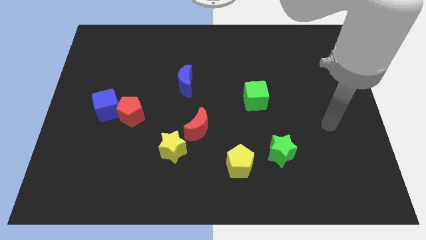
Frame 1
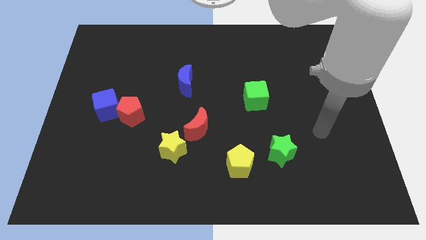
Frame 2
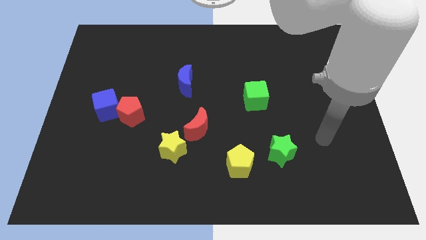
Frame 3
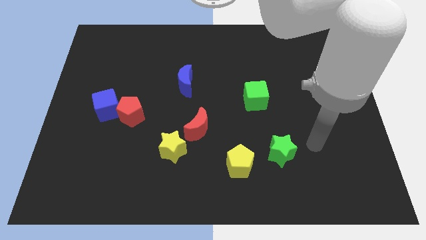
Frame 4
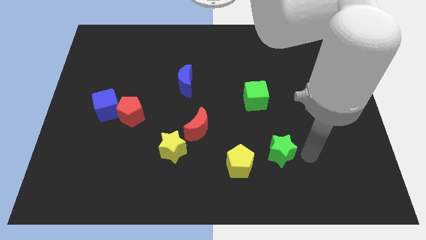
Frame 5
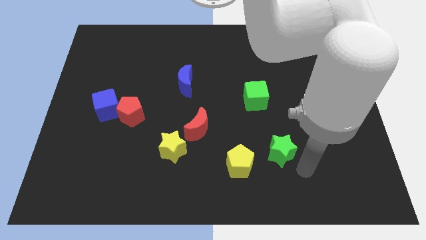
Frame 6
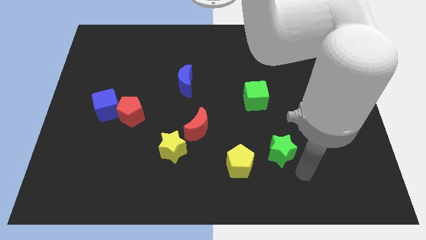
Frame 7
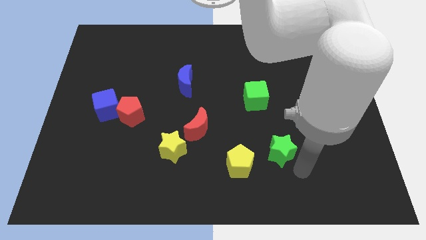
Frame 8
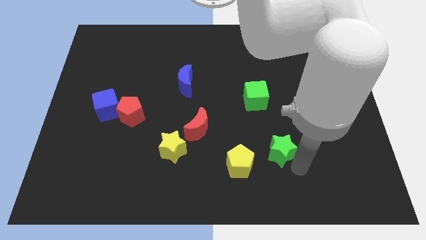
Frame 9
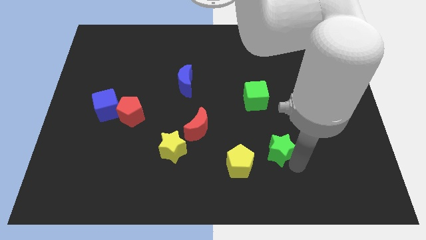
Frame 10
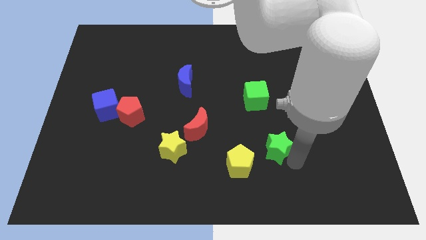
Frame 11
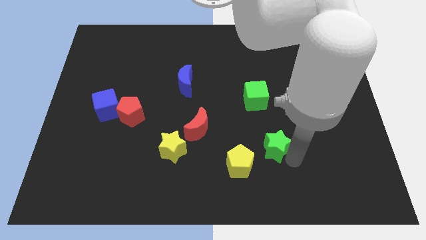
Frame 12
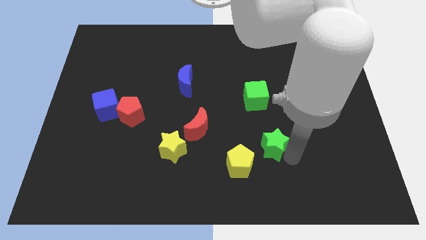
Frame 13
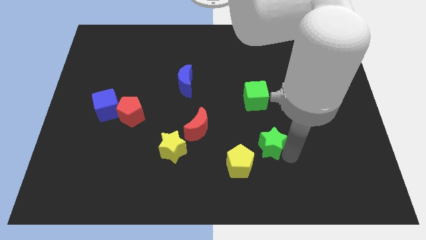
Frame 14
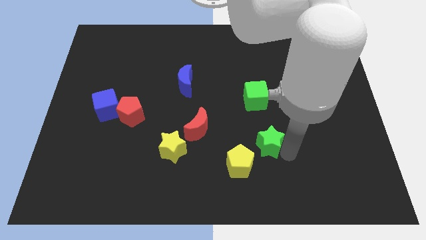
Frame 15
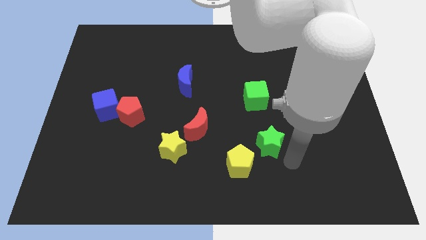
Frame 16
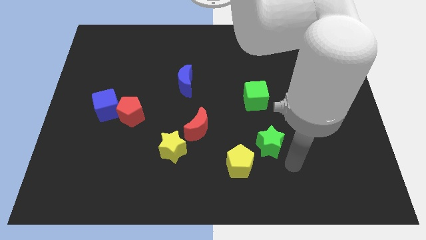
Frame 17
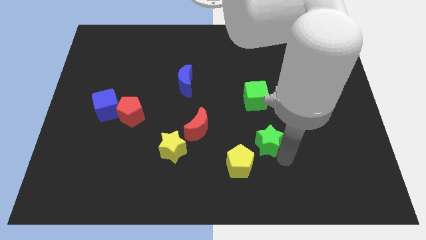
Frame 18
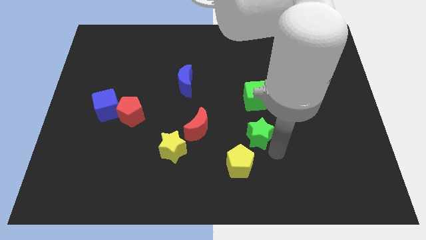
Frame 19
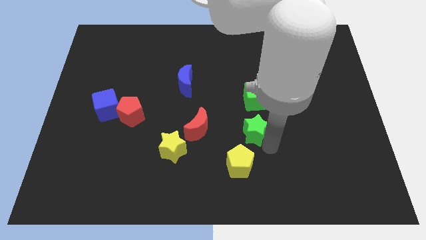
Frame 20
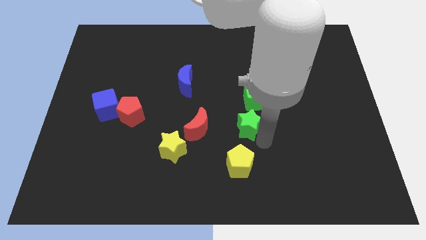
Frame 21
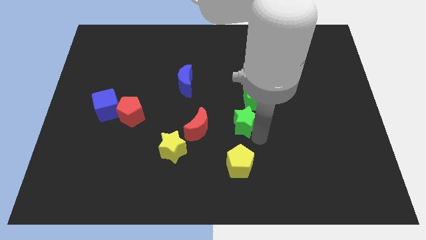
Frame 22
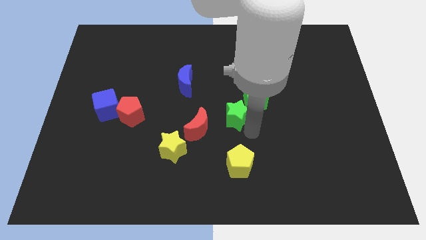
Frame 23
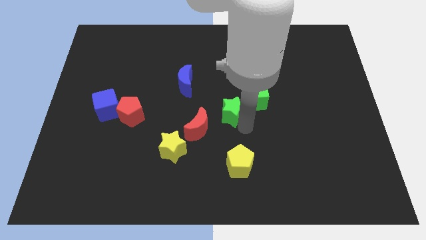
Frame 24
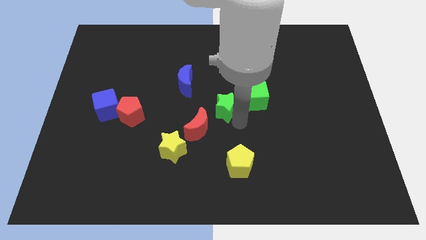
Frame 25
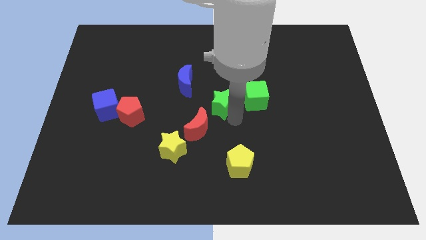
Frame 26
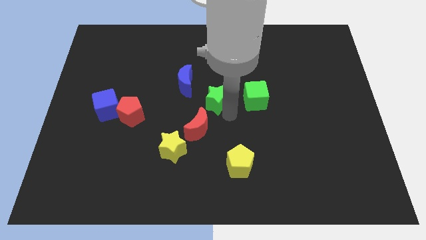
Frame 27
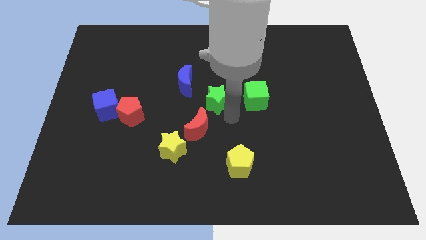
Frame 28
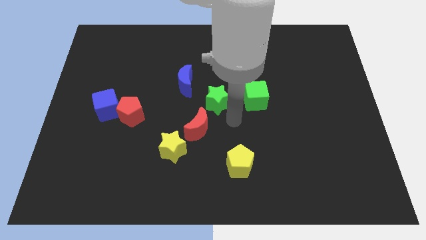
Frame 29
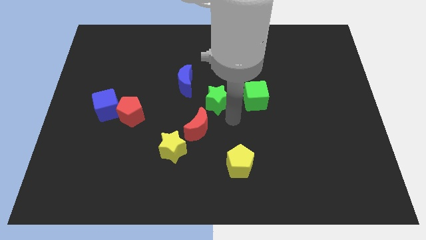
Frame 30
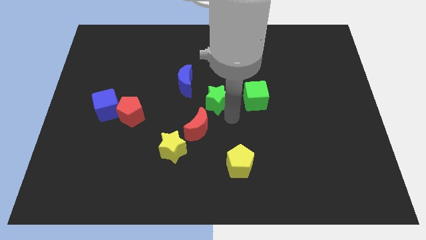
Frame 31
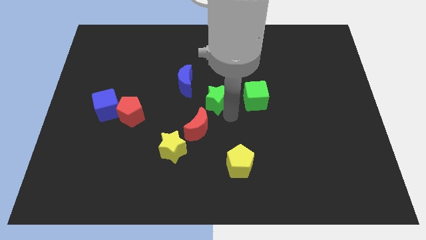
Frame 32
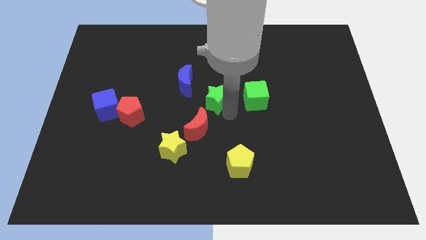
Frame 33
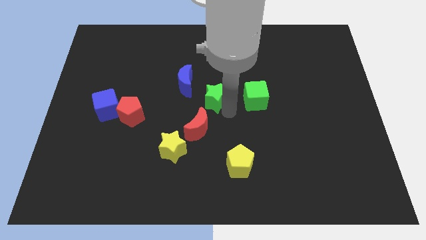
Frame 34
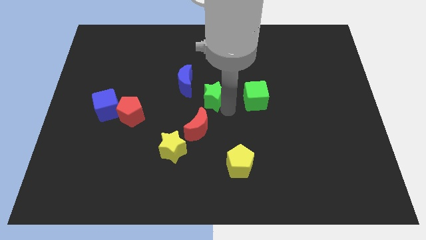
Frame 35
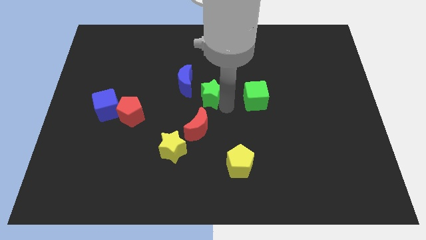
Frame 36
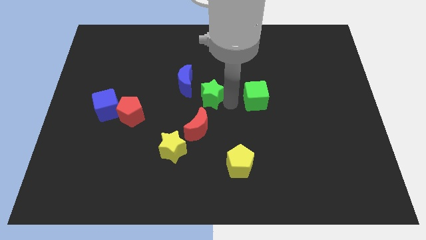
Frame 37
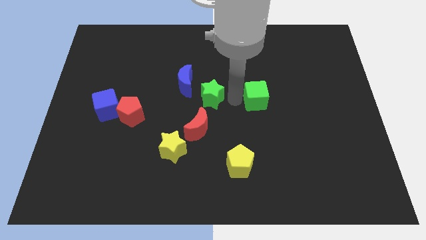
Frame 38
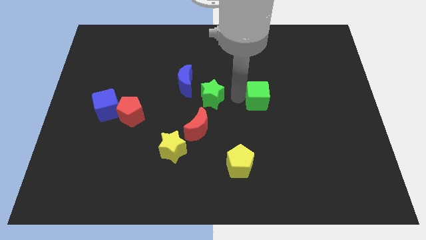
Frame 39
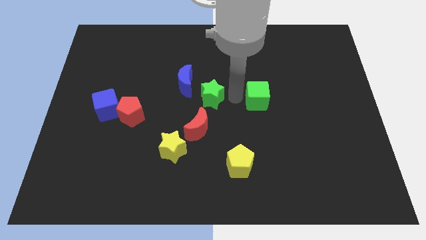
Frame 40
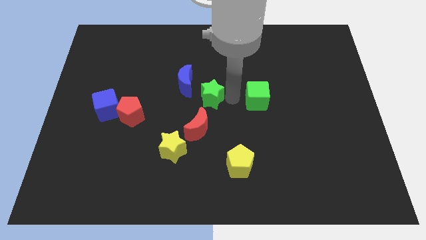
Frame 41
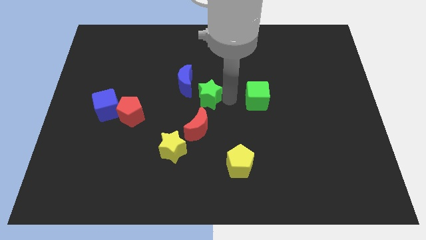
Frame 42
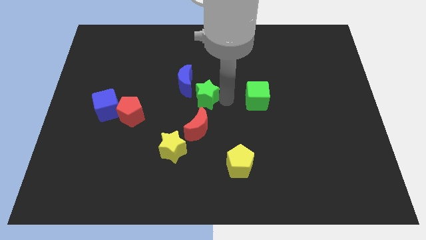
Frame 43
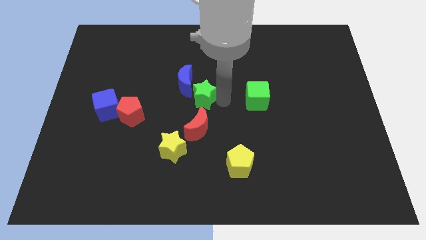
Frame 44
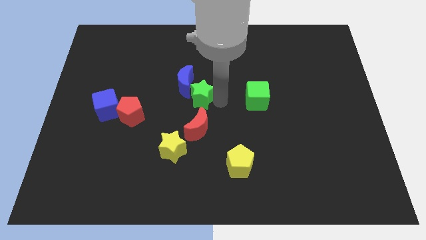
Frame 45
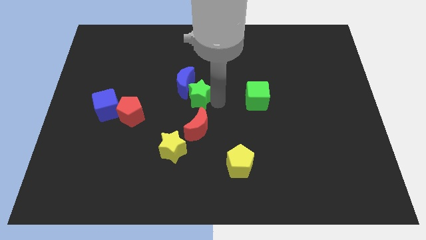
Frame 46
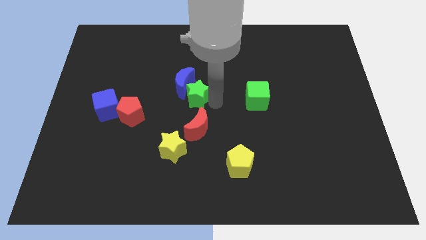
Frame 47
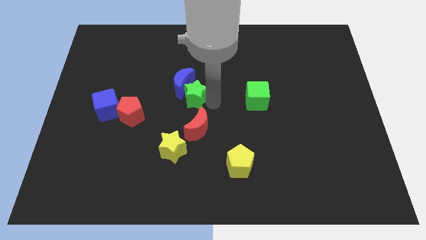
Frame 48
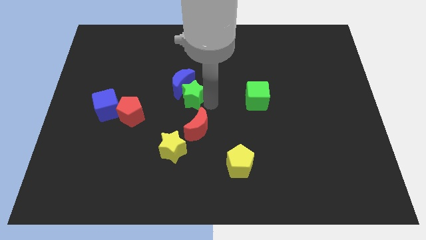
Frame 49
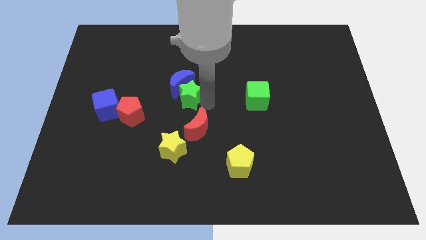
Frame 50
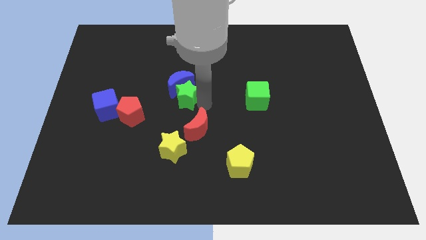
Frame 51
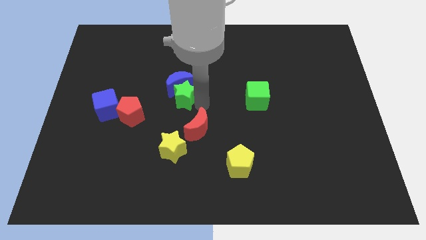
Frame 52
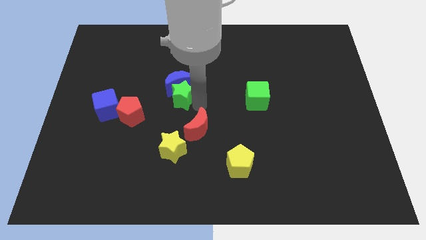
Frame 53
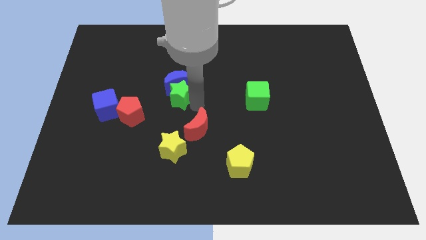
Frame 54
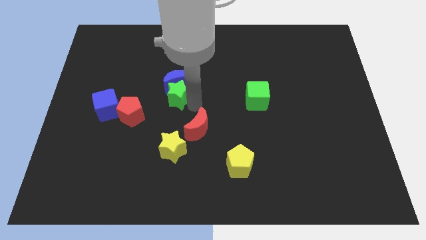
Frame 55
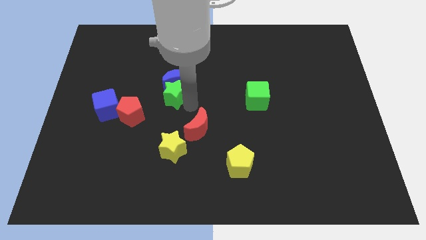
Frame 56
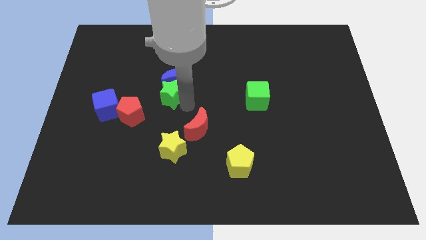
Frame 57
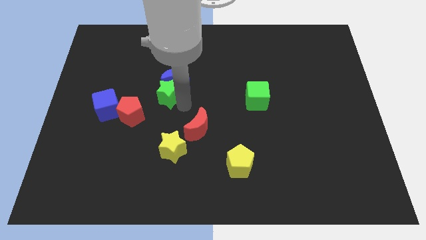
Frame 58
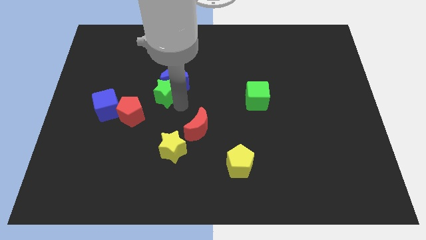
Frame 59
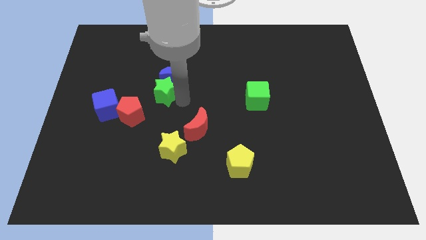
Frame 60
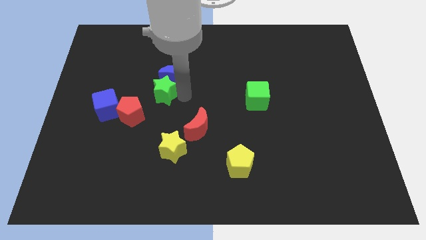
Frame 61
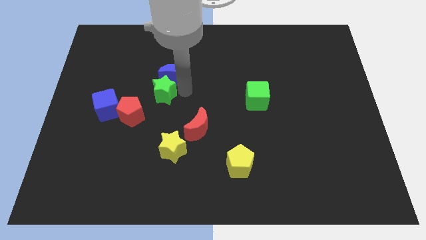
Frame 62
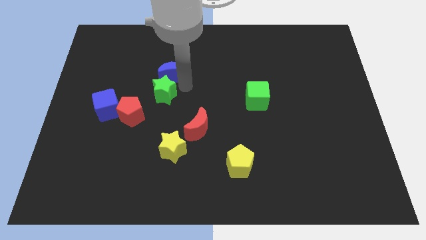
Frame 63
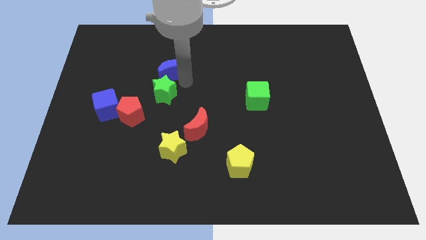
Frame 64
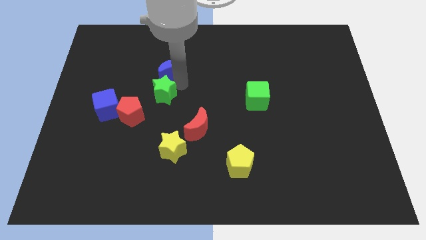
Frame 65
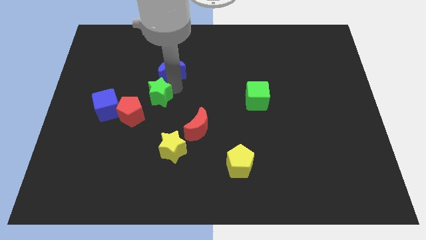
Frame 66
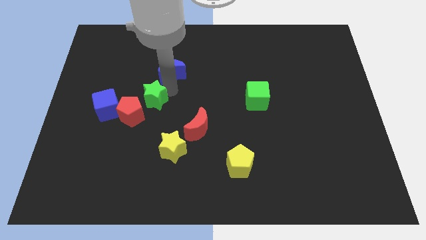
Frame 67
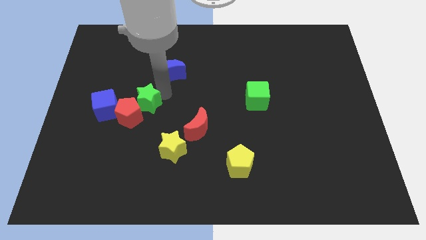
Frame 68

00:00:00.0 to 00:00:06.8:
put the green star close to the red pentagon
